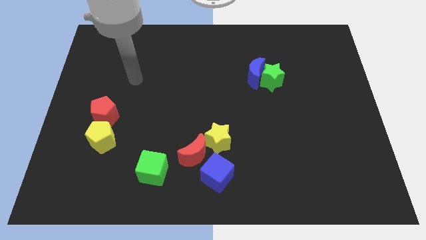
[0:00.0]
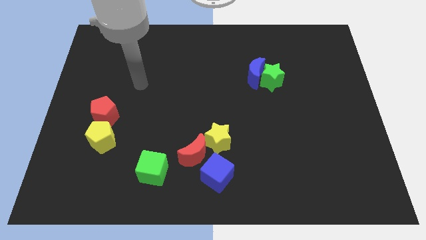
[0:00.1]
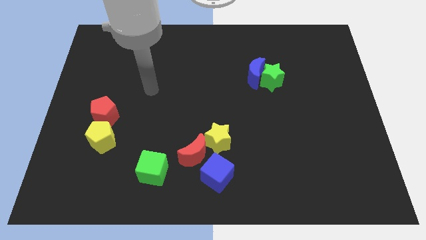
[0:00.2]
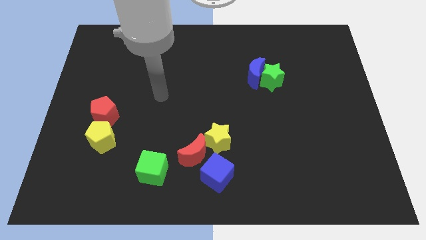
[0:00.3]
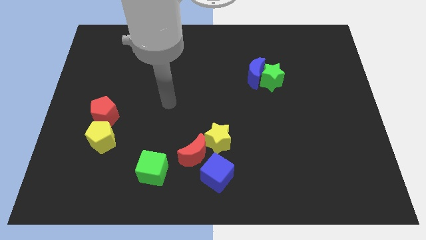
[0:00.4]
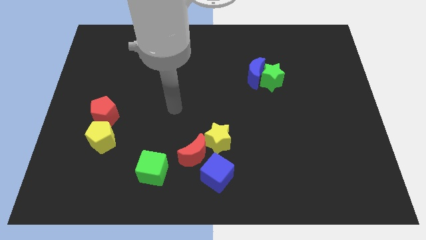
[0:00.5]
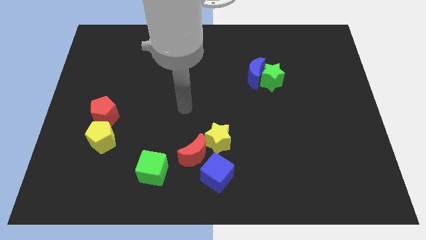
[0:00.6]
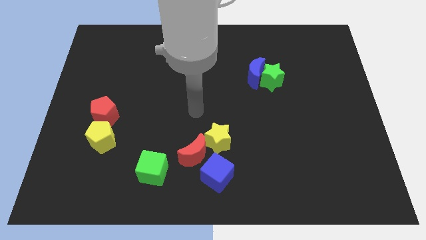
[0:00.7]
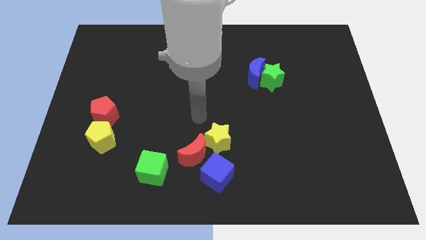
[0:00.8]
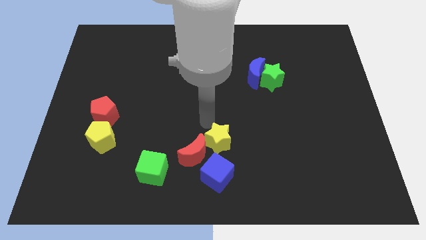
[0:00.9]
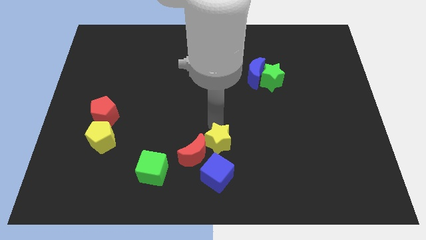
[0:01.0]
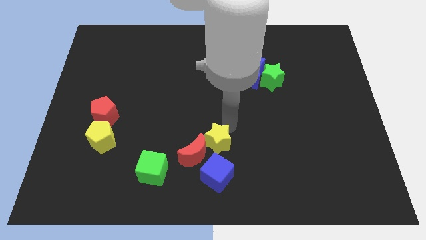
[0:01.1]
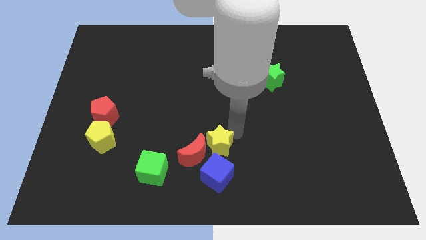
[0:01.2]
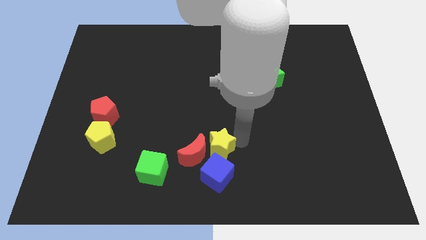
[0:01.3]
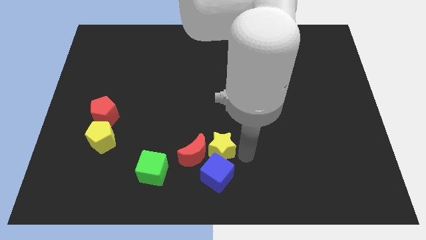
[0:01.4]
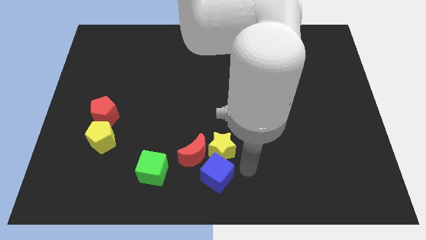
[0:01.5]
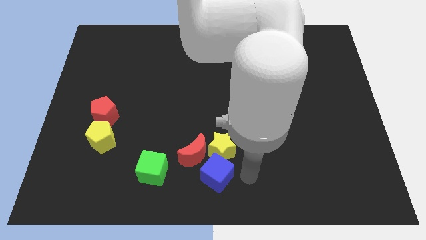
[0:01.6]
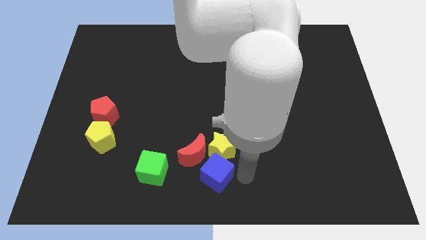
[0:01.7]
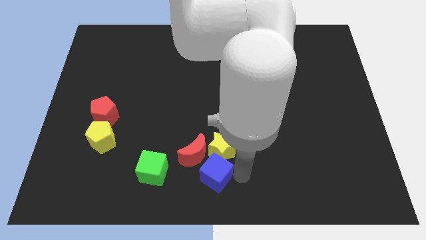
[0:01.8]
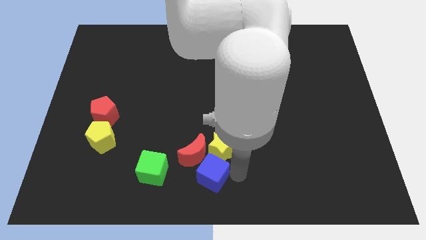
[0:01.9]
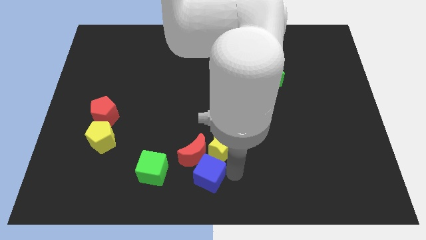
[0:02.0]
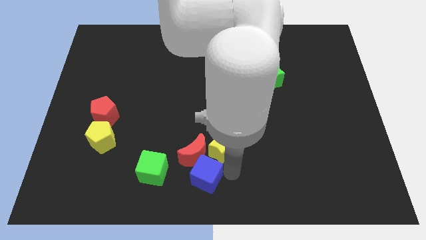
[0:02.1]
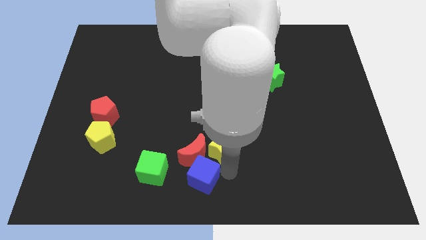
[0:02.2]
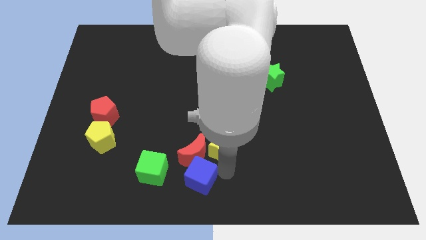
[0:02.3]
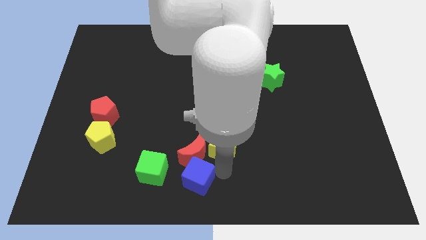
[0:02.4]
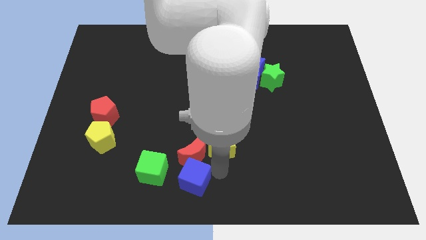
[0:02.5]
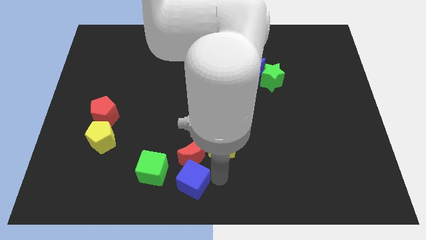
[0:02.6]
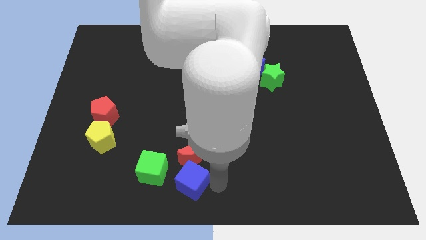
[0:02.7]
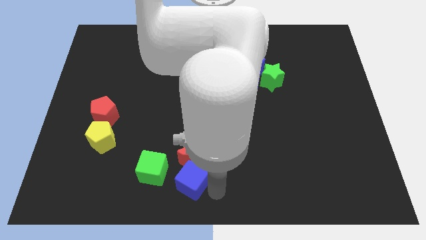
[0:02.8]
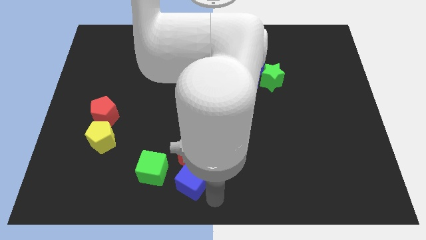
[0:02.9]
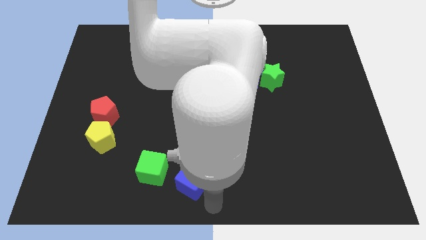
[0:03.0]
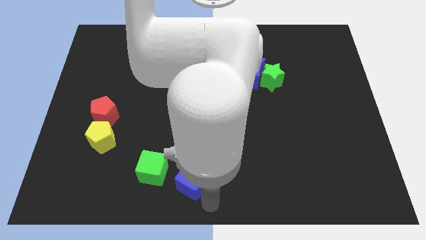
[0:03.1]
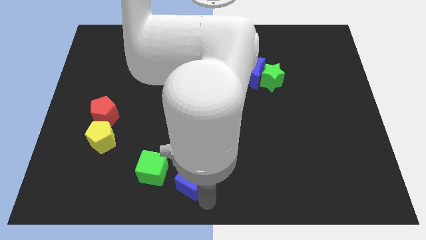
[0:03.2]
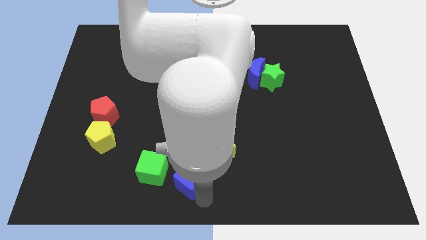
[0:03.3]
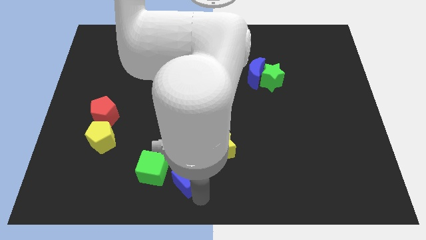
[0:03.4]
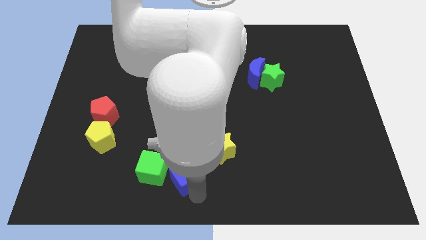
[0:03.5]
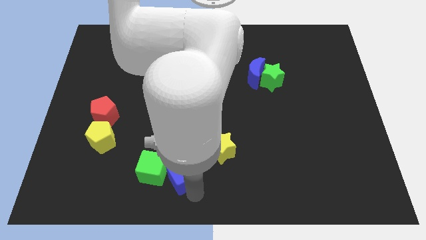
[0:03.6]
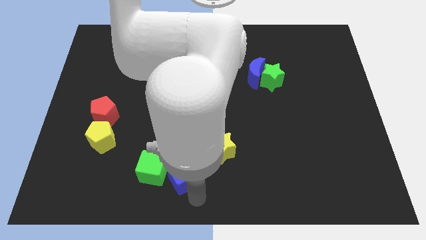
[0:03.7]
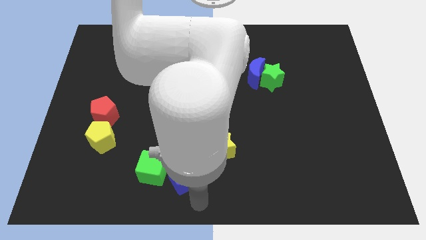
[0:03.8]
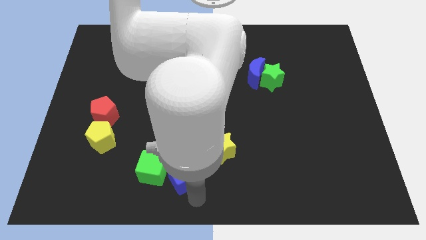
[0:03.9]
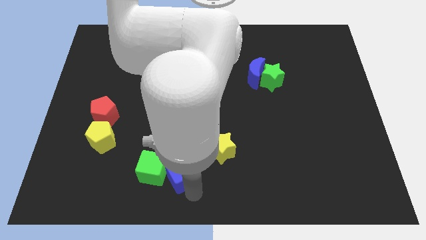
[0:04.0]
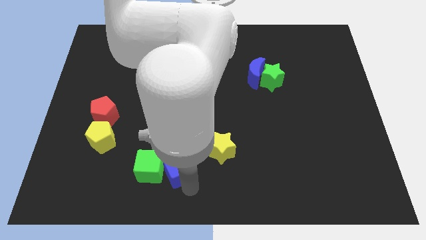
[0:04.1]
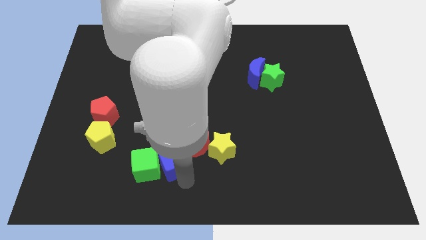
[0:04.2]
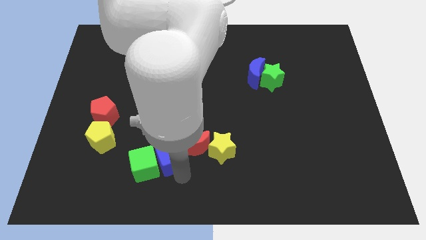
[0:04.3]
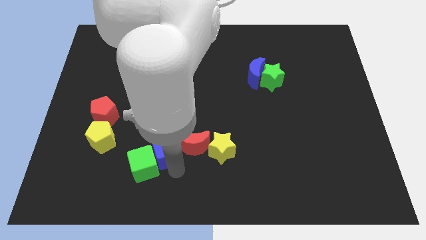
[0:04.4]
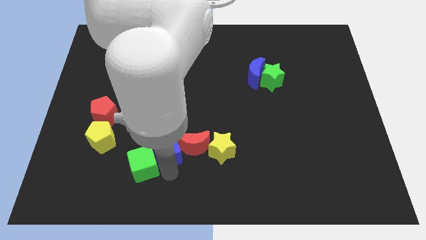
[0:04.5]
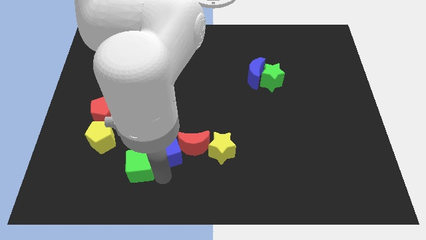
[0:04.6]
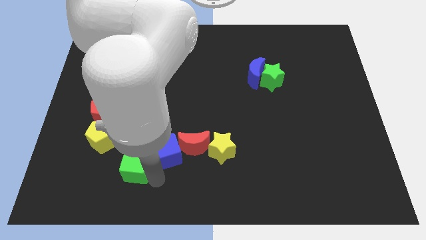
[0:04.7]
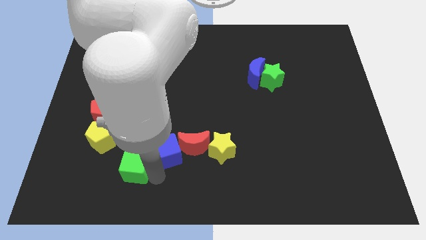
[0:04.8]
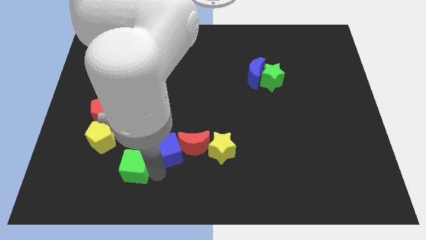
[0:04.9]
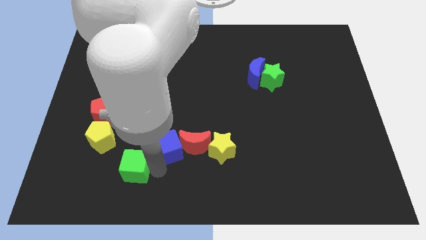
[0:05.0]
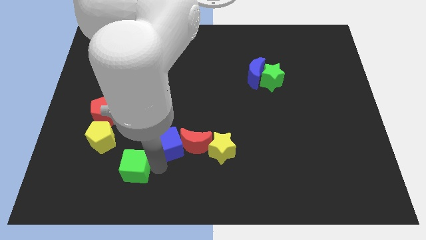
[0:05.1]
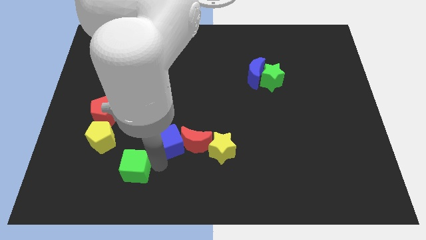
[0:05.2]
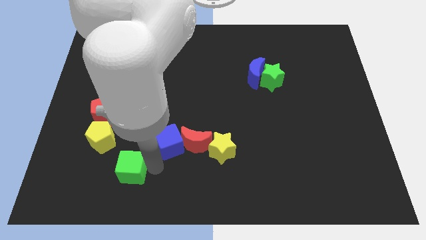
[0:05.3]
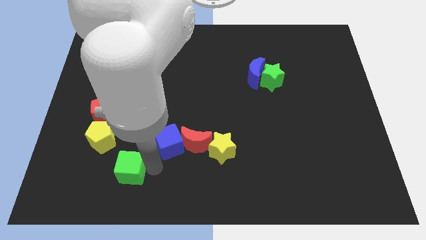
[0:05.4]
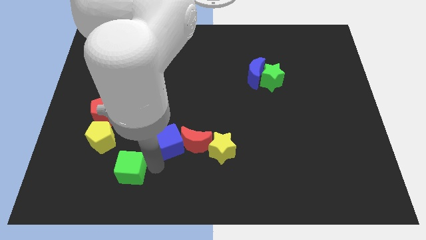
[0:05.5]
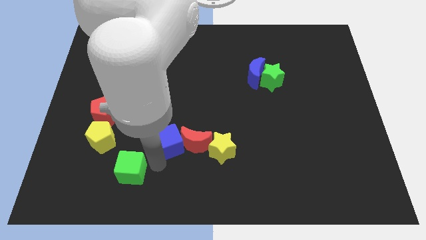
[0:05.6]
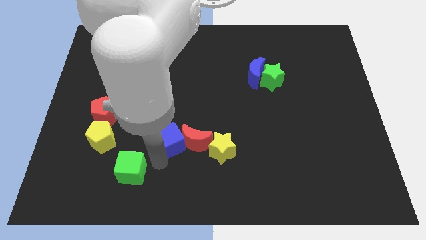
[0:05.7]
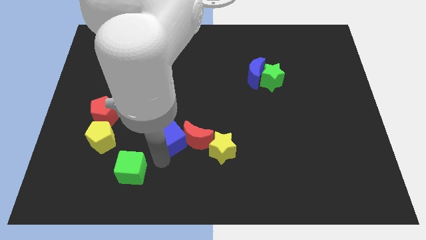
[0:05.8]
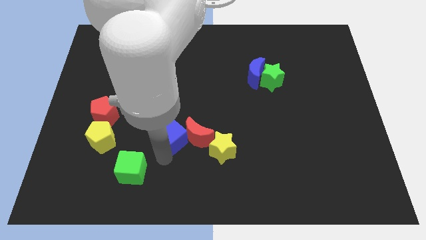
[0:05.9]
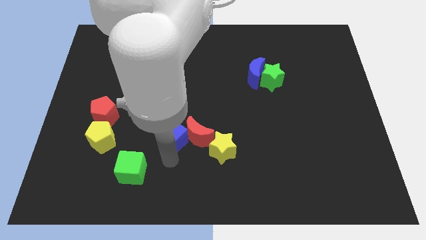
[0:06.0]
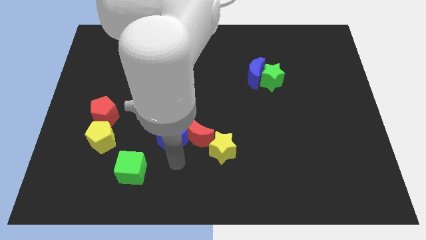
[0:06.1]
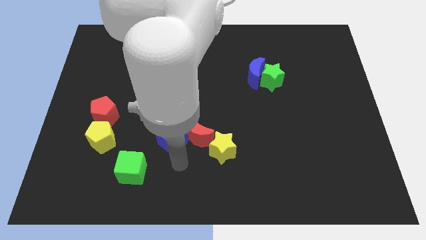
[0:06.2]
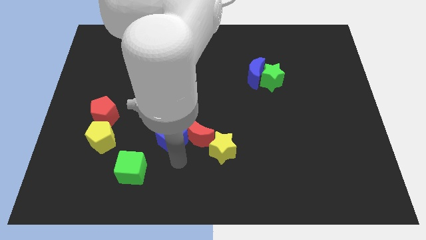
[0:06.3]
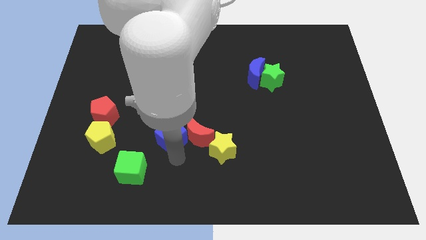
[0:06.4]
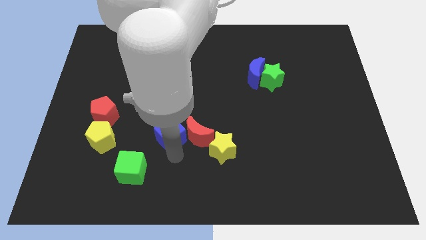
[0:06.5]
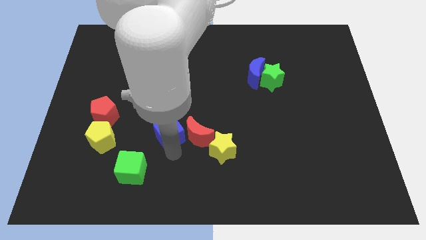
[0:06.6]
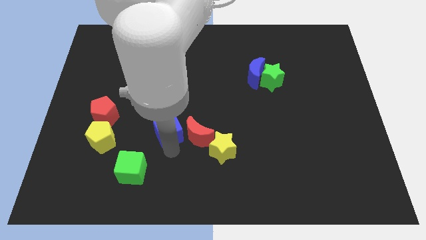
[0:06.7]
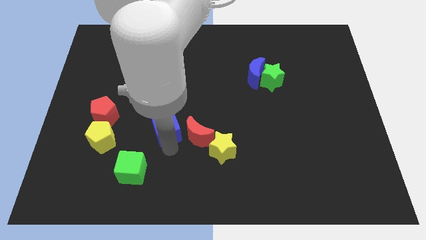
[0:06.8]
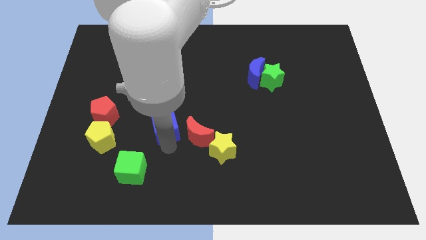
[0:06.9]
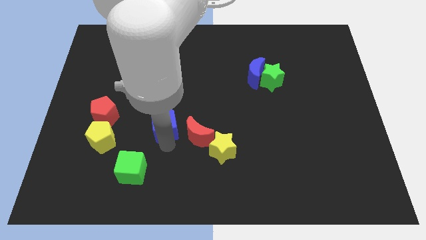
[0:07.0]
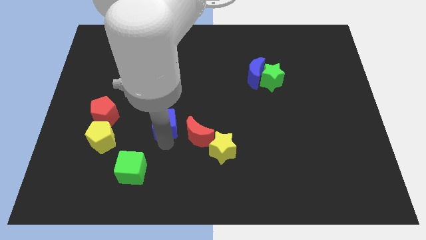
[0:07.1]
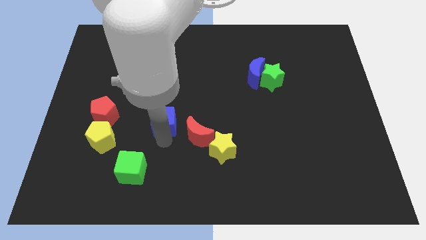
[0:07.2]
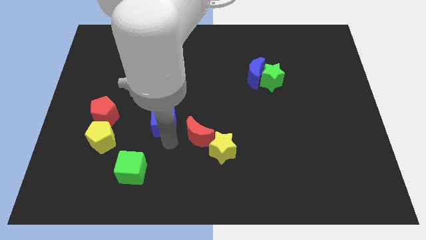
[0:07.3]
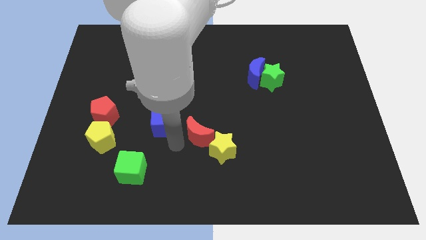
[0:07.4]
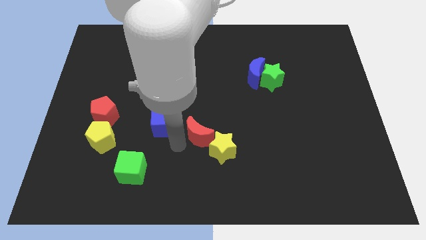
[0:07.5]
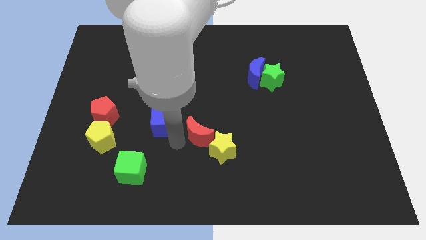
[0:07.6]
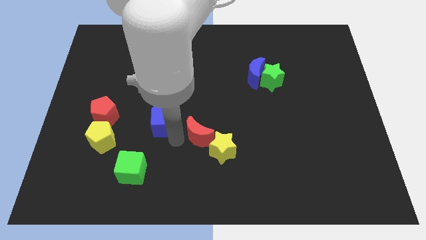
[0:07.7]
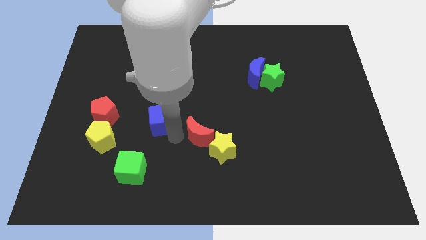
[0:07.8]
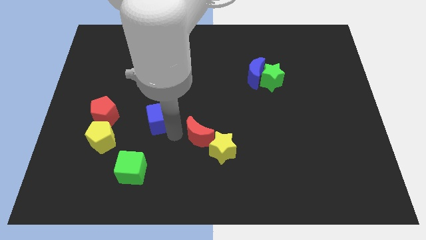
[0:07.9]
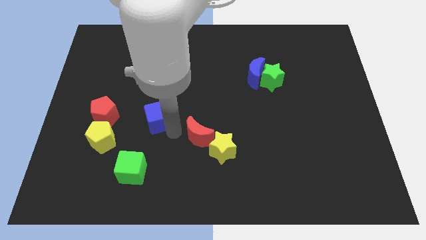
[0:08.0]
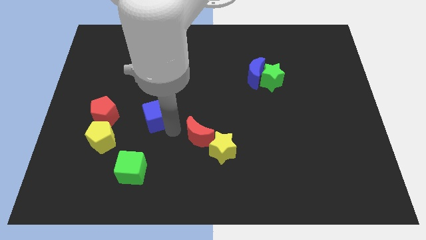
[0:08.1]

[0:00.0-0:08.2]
move the blue cube upwards and then to the left

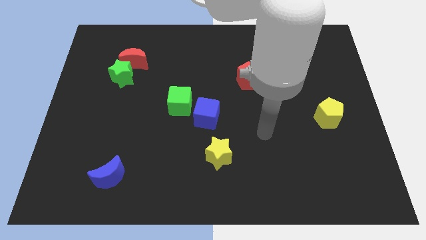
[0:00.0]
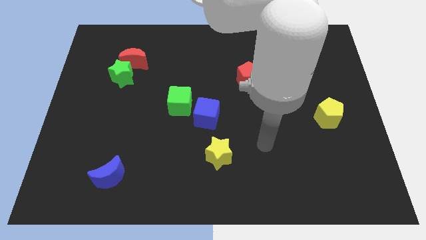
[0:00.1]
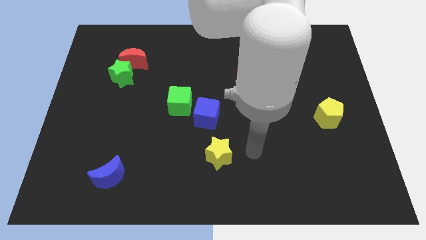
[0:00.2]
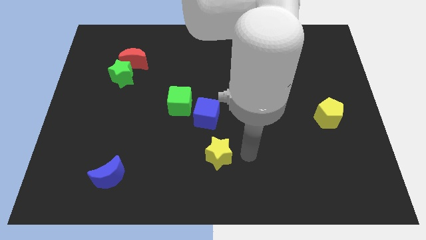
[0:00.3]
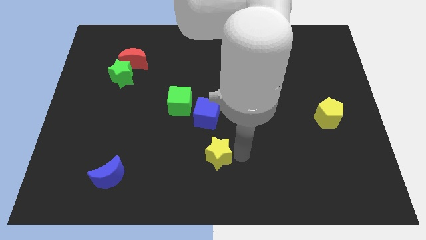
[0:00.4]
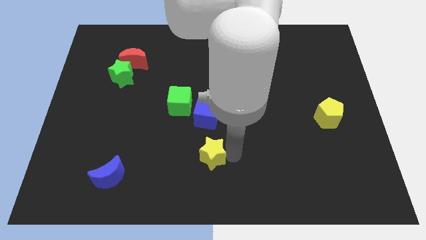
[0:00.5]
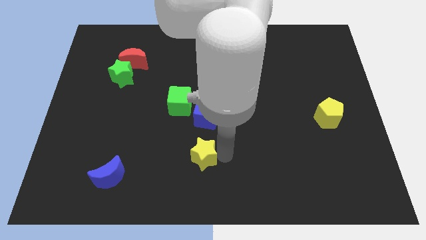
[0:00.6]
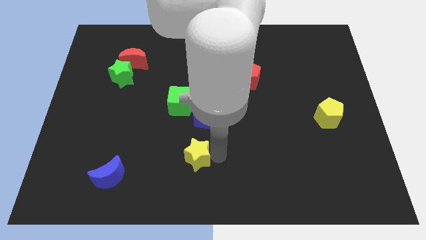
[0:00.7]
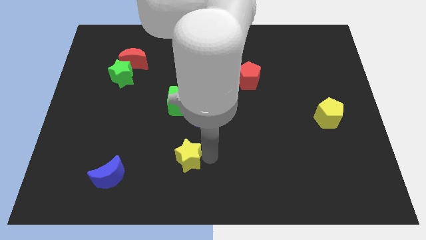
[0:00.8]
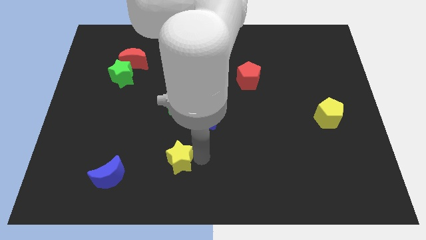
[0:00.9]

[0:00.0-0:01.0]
slightly move the yellow star to the left
